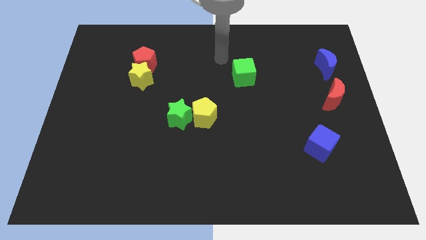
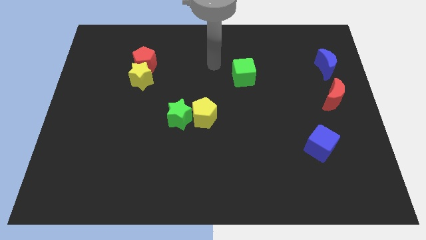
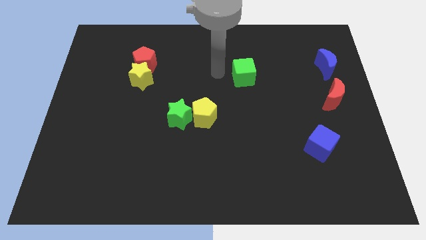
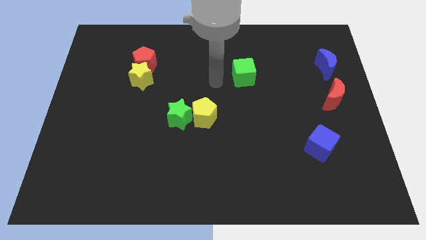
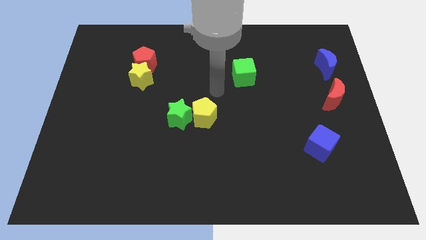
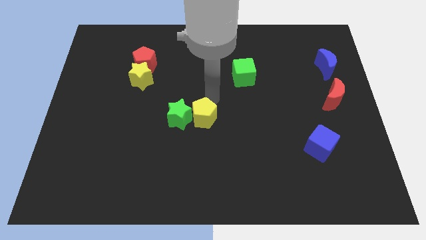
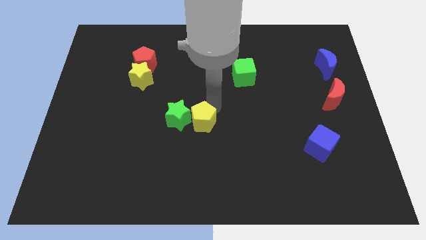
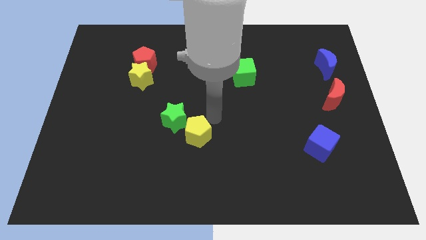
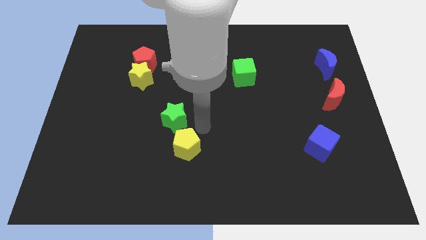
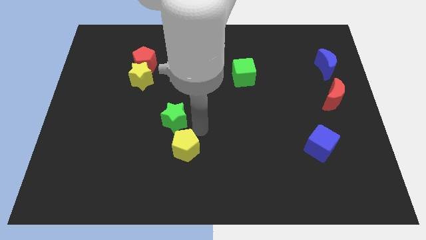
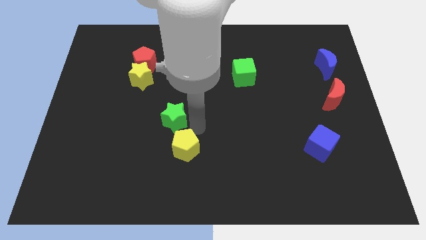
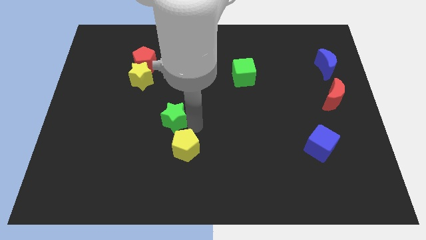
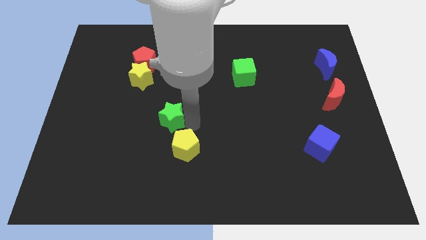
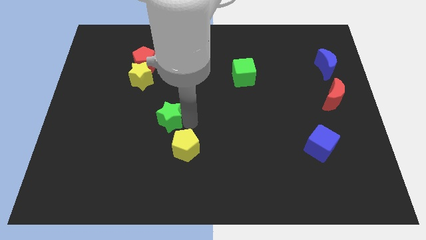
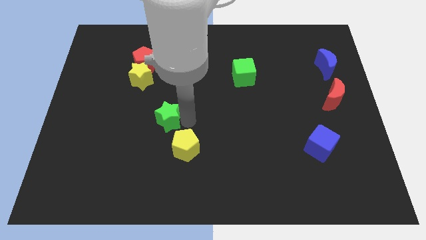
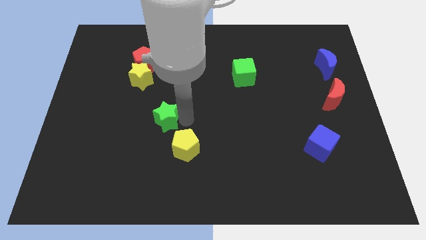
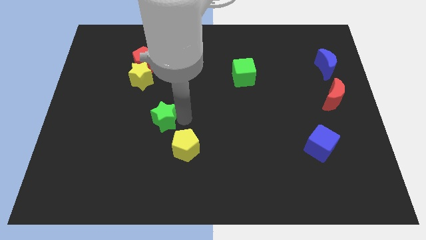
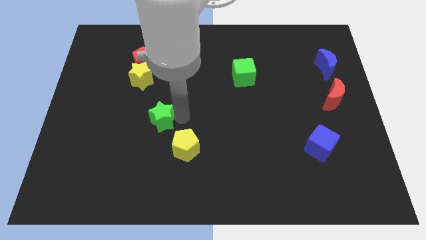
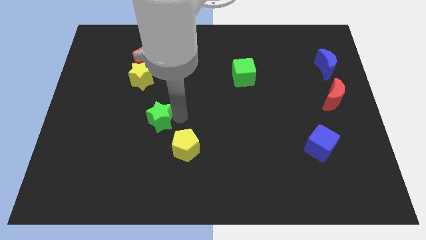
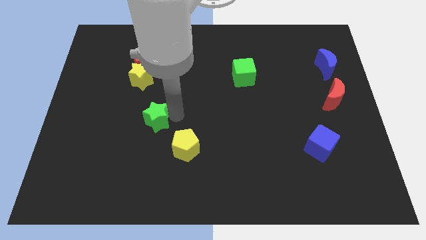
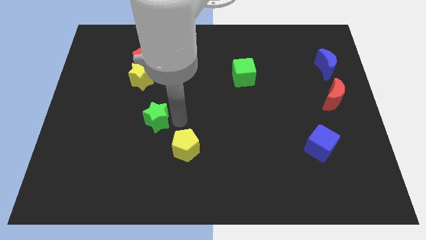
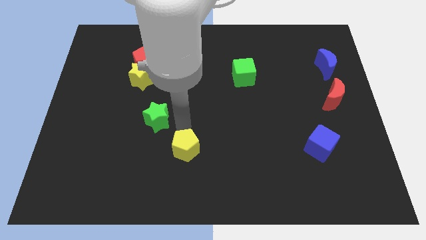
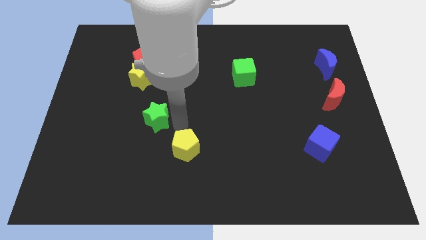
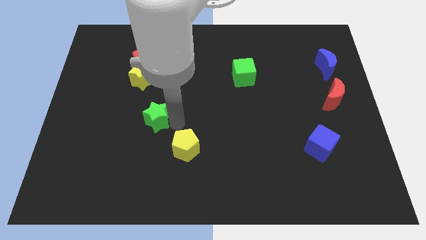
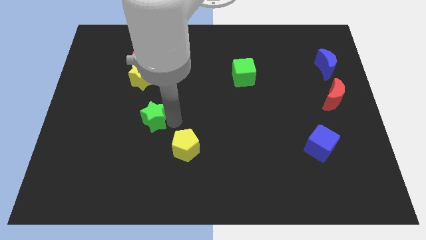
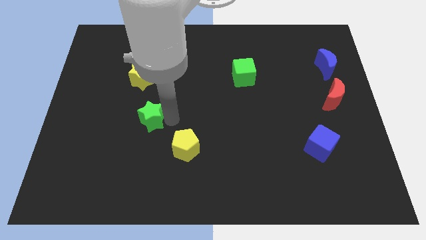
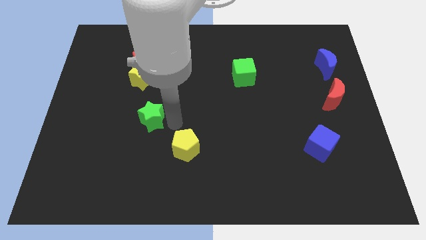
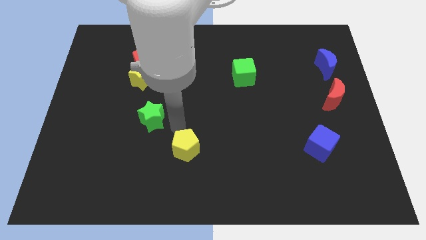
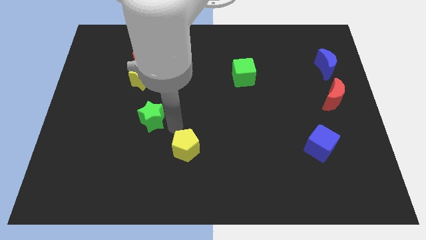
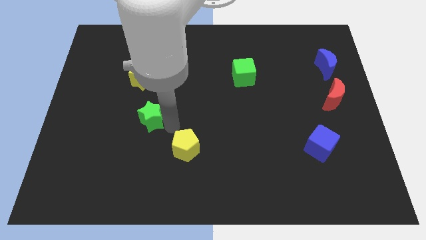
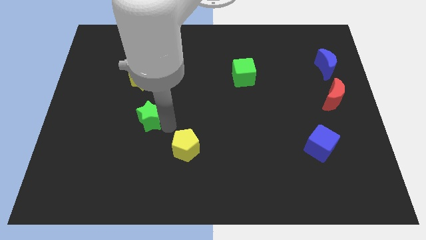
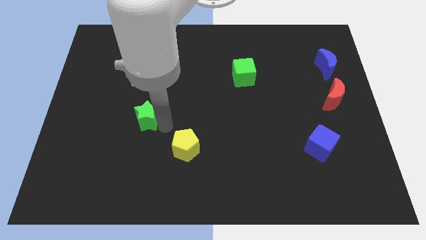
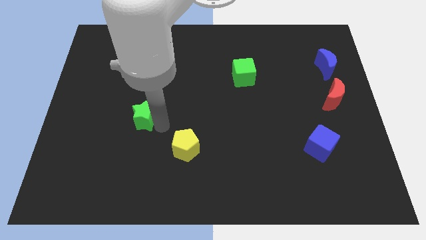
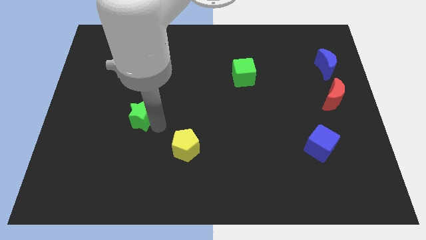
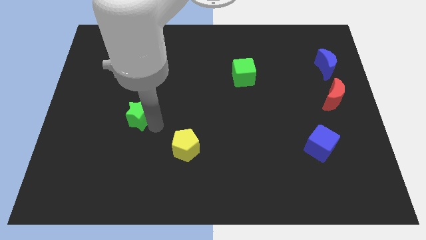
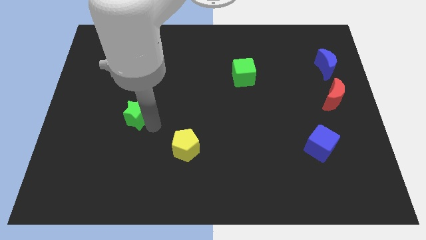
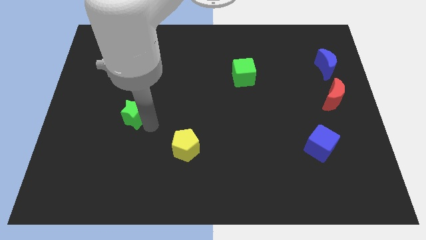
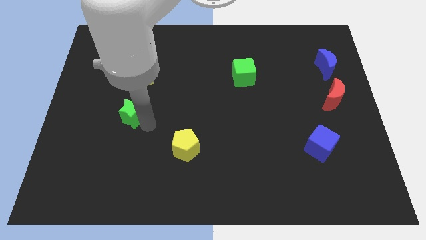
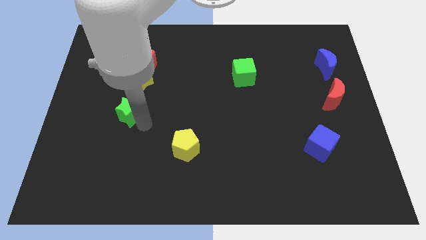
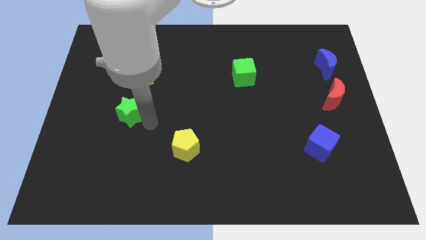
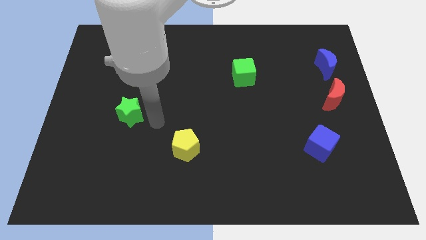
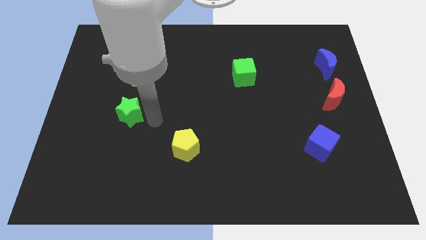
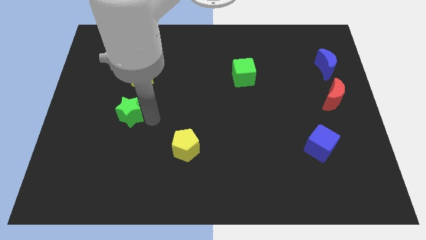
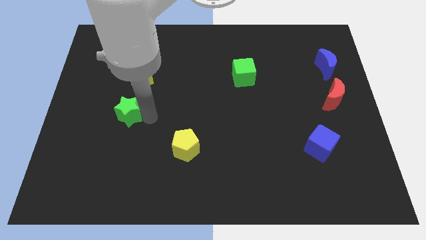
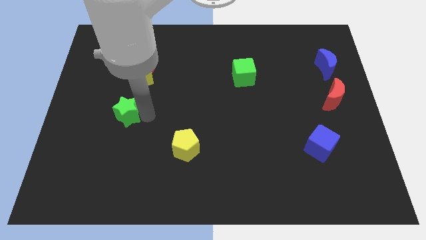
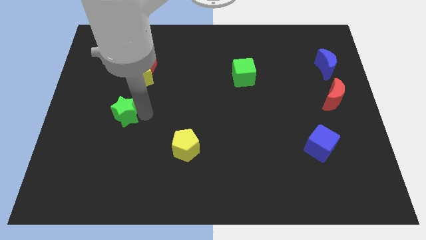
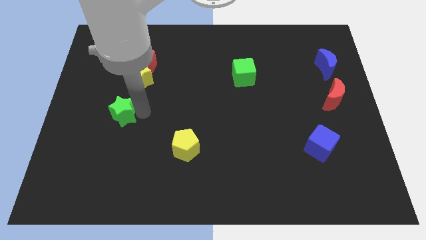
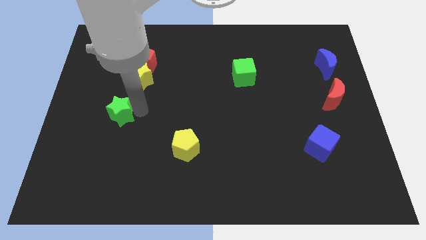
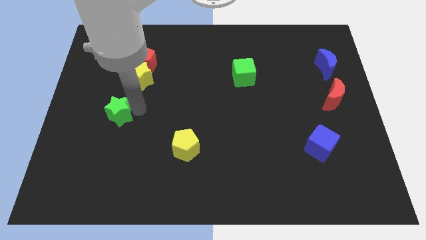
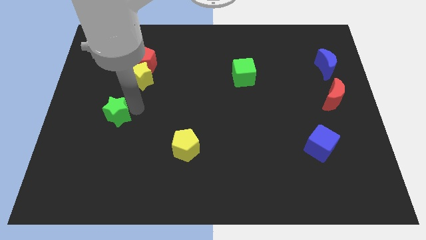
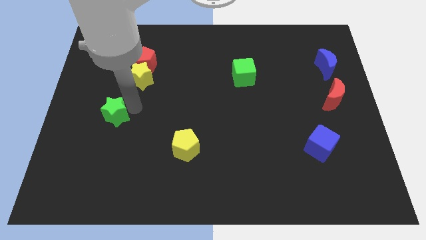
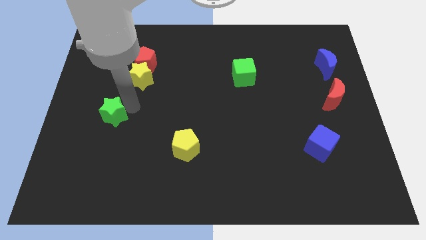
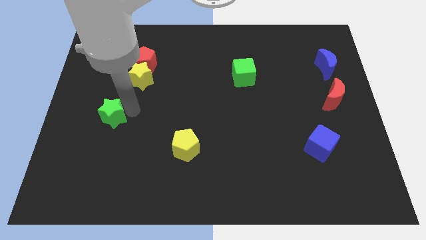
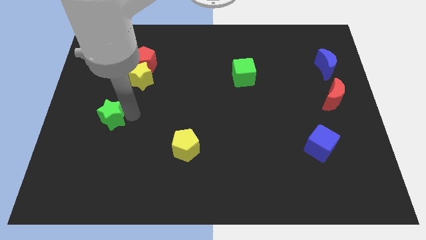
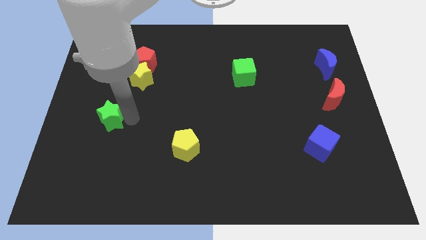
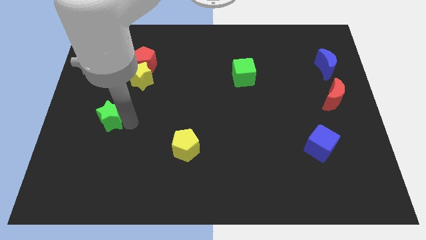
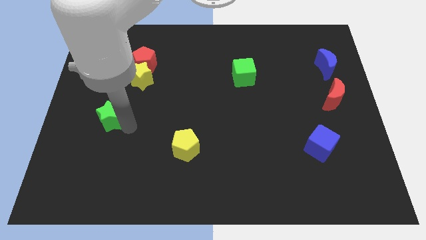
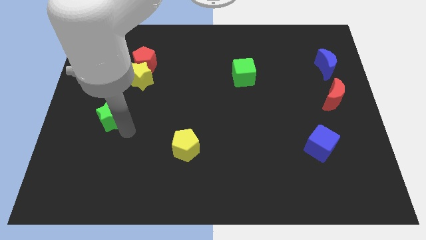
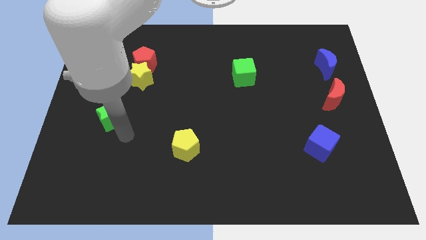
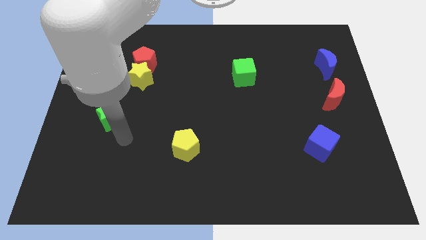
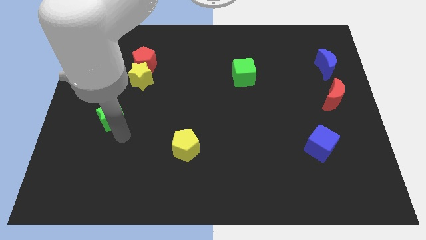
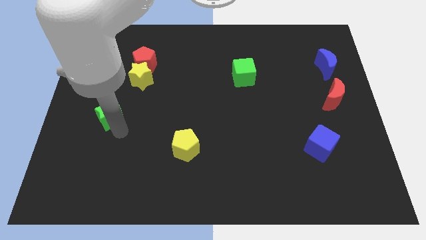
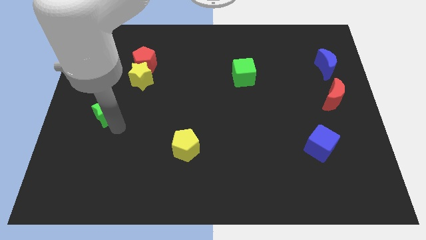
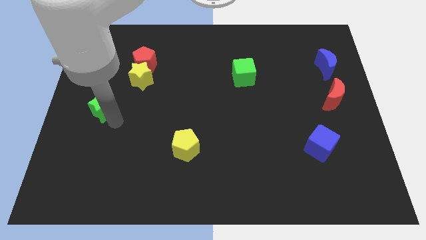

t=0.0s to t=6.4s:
move the green star to the left side

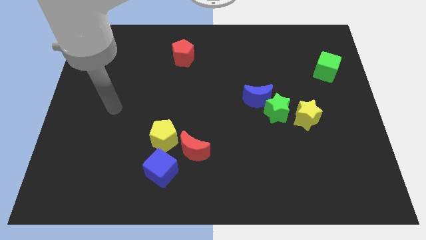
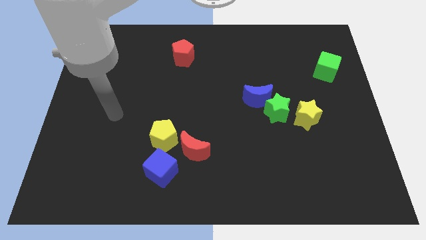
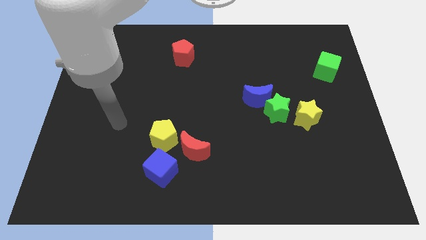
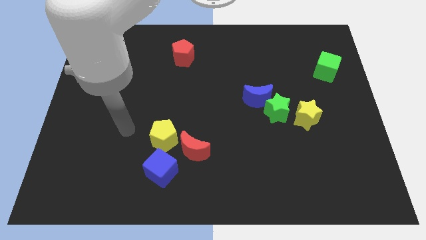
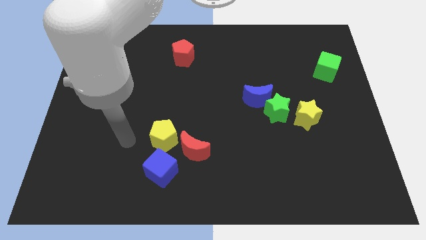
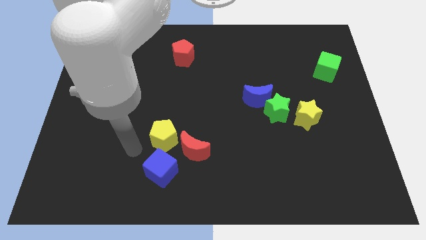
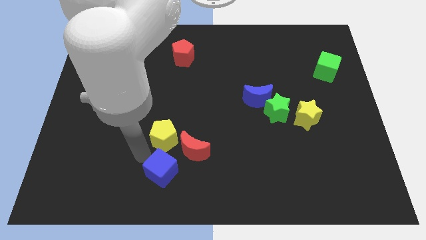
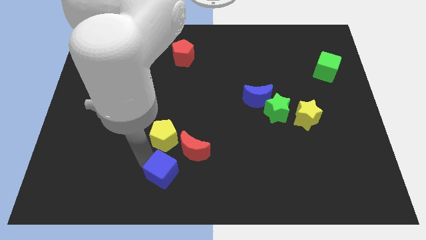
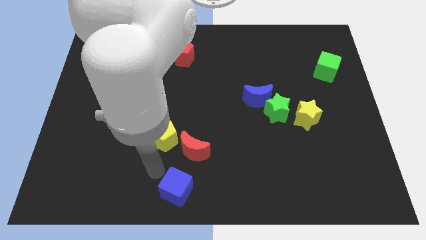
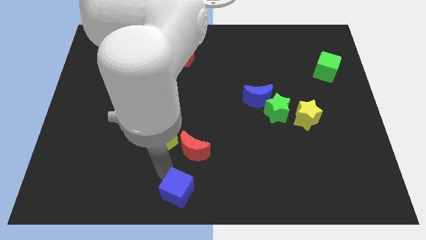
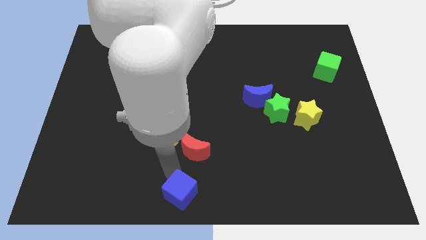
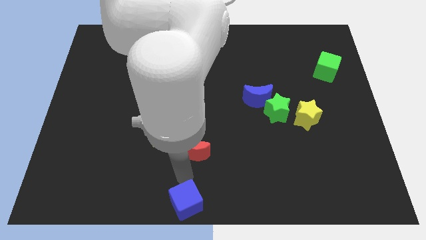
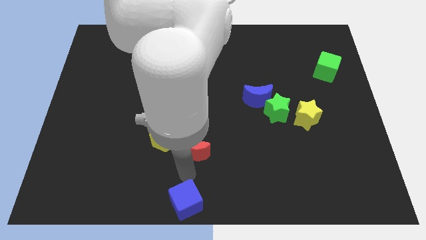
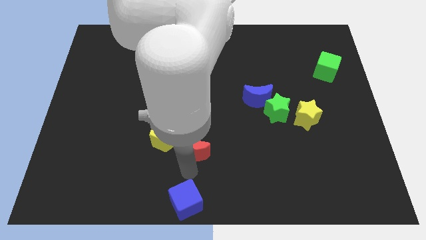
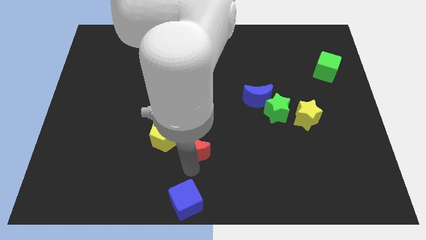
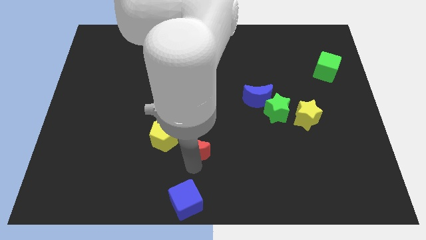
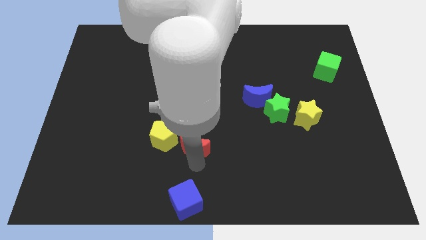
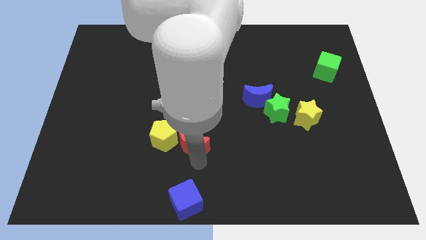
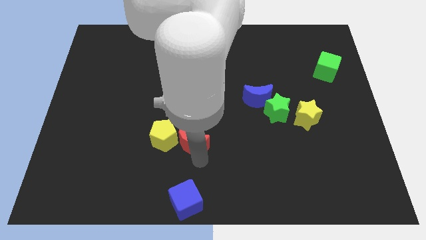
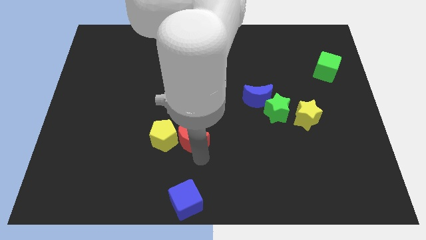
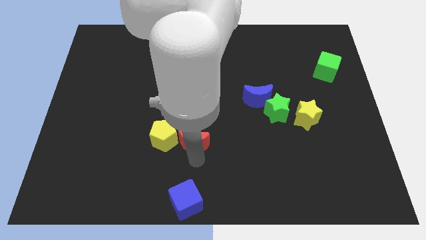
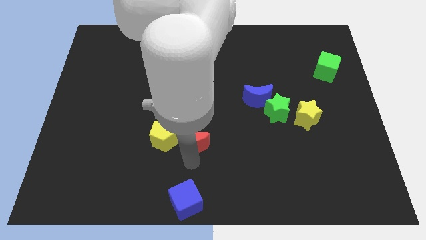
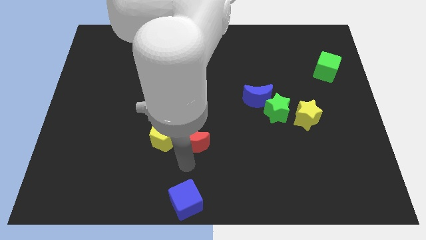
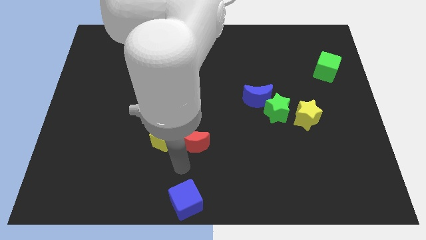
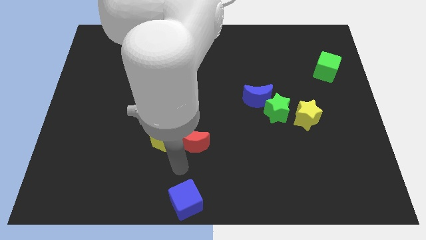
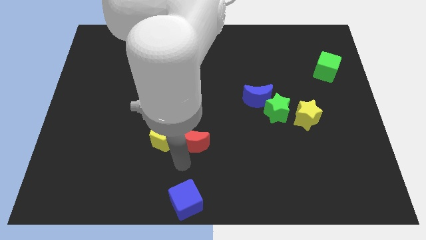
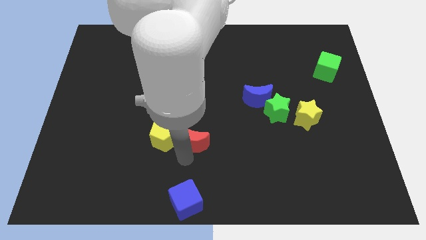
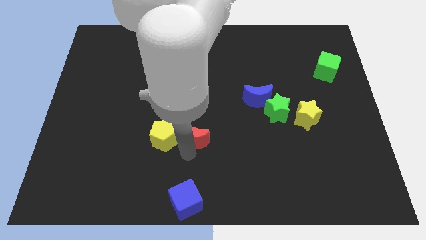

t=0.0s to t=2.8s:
slide the red moon to the middle of the board
